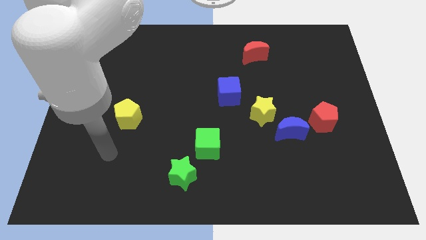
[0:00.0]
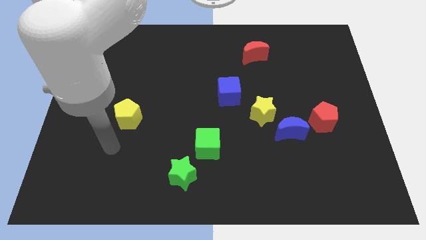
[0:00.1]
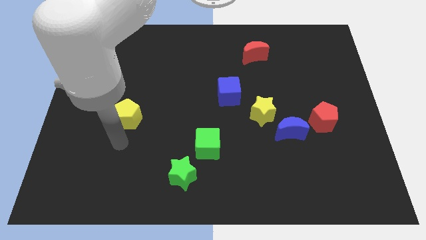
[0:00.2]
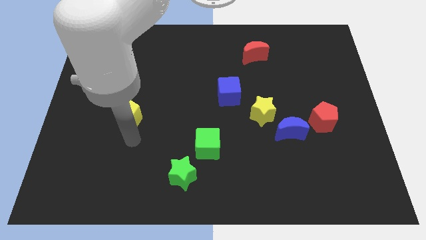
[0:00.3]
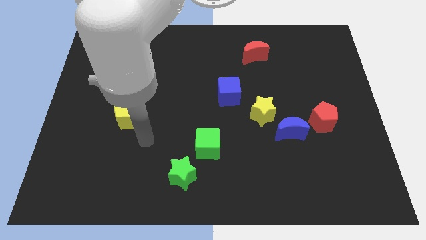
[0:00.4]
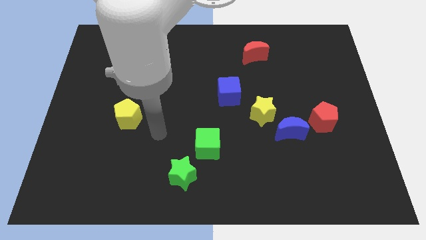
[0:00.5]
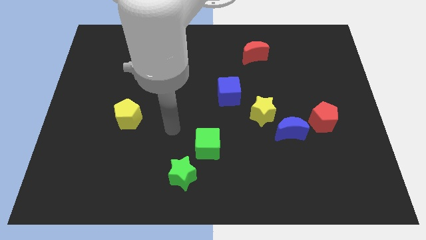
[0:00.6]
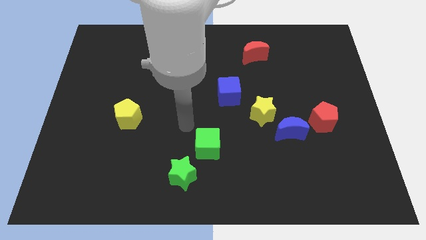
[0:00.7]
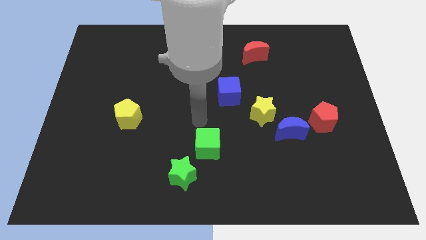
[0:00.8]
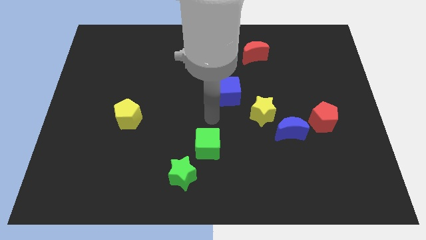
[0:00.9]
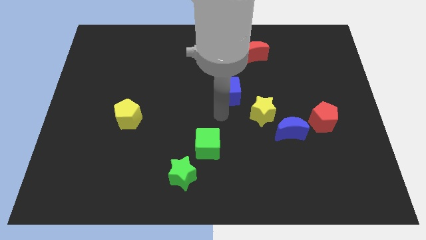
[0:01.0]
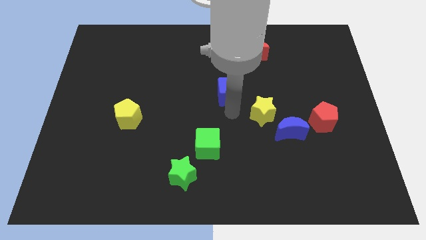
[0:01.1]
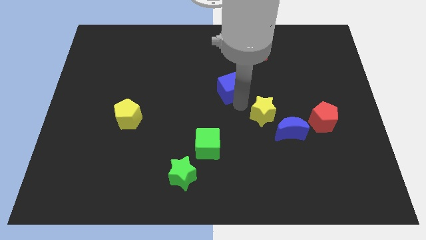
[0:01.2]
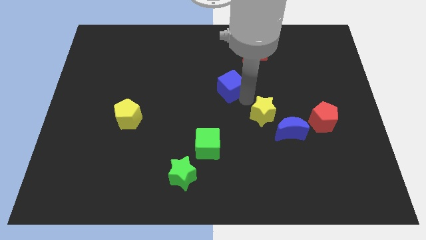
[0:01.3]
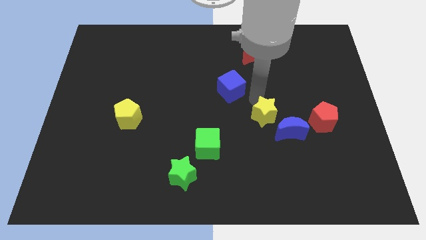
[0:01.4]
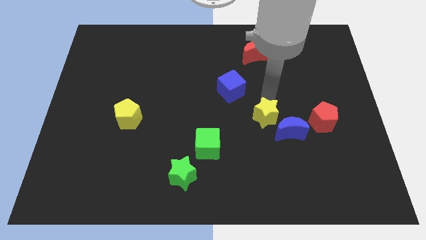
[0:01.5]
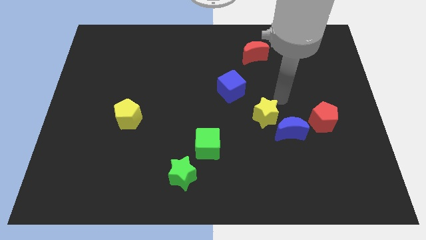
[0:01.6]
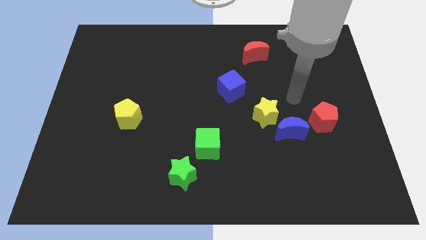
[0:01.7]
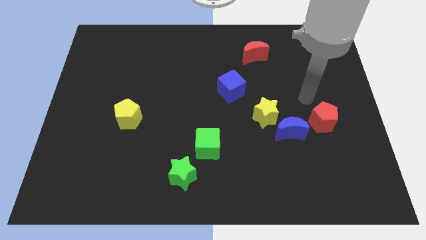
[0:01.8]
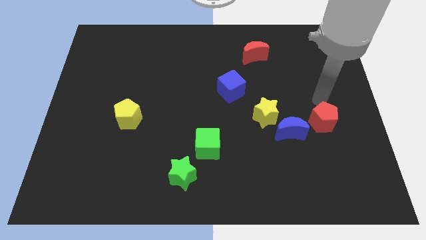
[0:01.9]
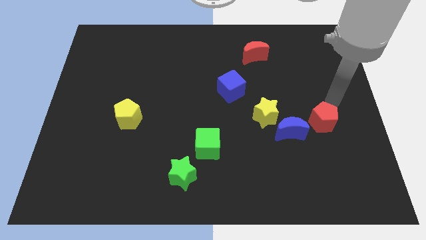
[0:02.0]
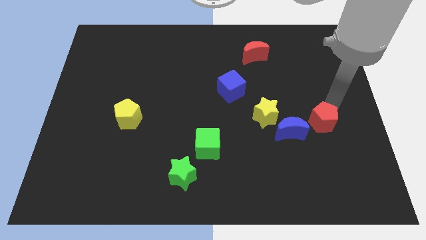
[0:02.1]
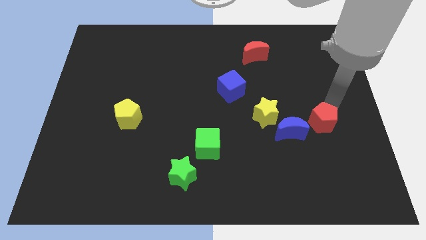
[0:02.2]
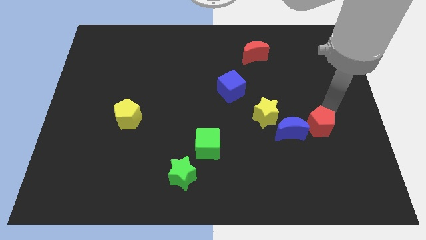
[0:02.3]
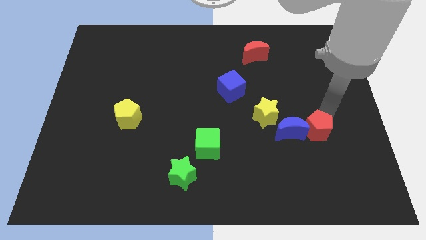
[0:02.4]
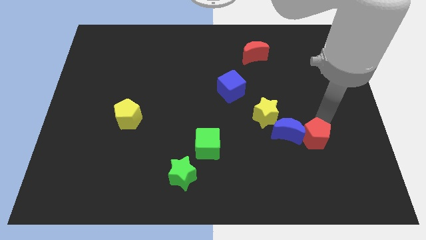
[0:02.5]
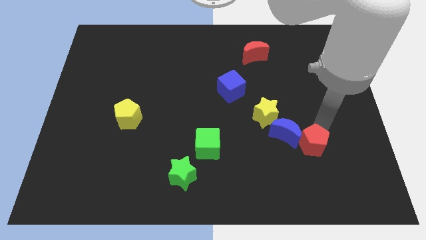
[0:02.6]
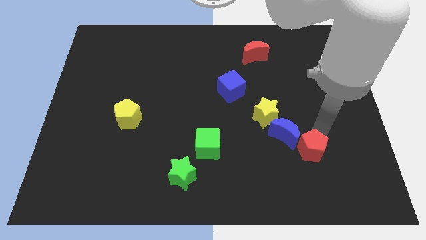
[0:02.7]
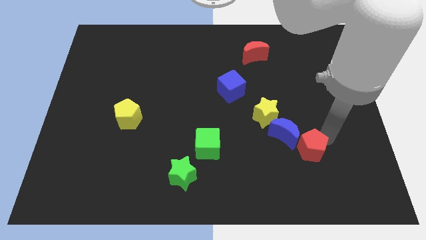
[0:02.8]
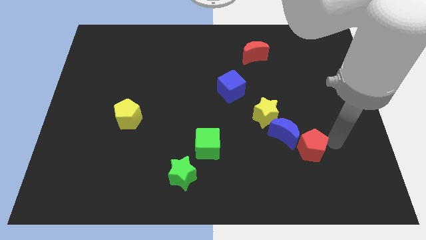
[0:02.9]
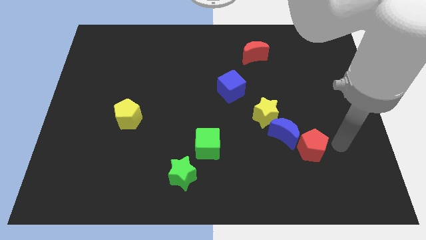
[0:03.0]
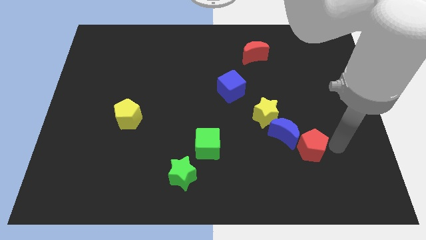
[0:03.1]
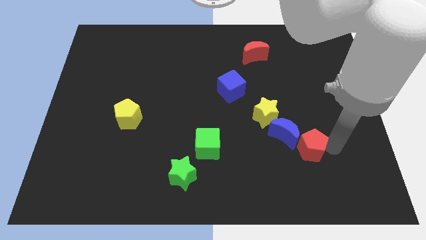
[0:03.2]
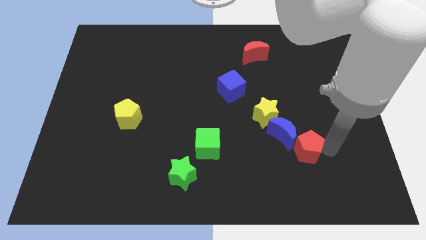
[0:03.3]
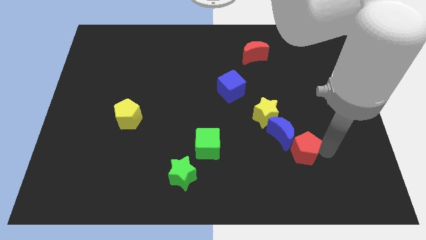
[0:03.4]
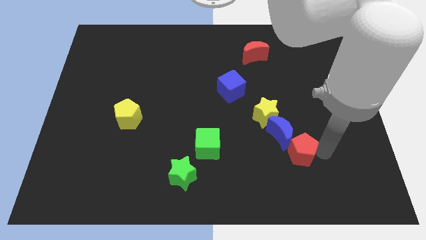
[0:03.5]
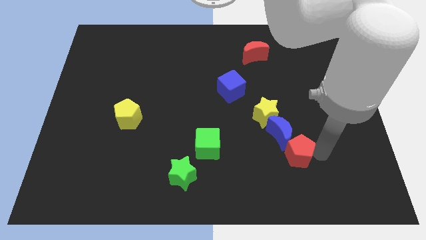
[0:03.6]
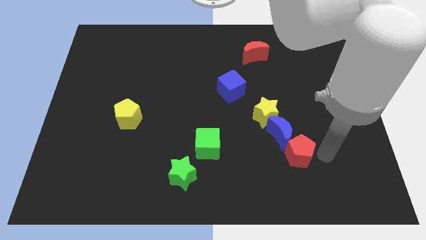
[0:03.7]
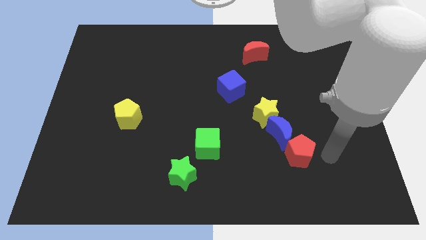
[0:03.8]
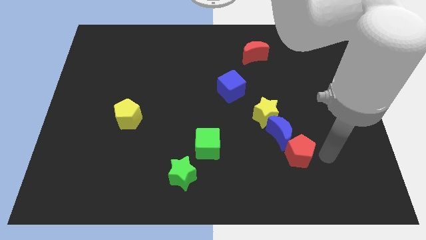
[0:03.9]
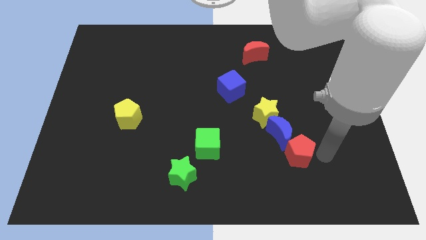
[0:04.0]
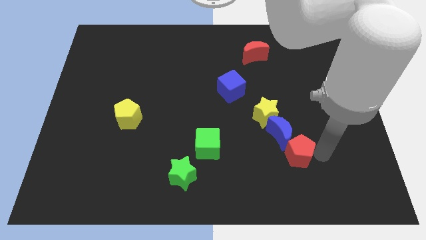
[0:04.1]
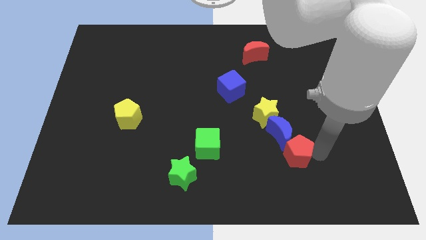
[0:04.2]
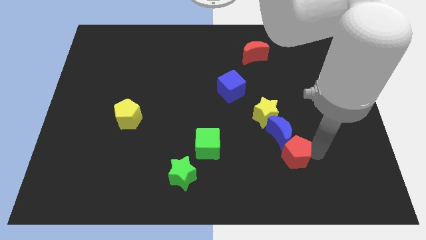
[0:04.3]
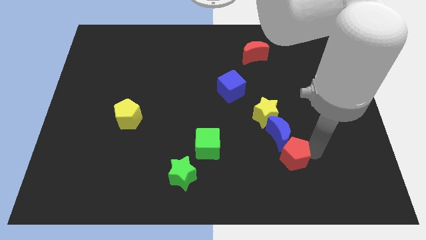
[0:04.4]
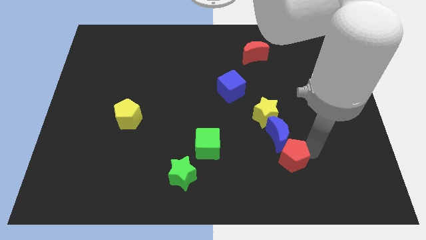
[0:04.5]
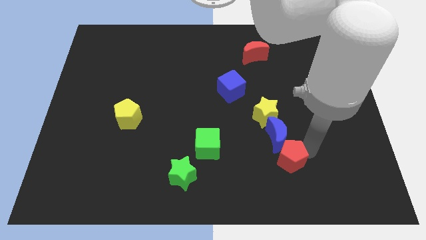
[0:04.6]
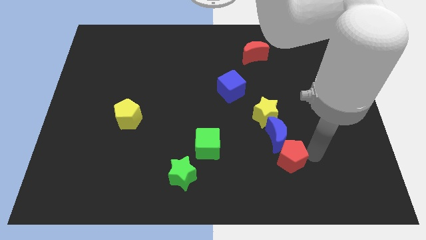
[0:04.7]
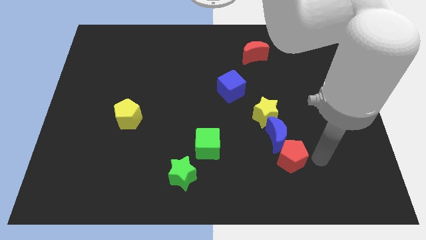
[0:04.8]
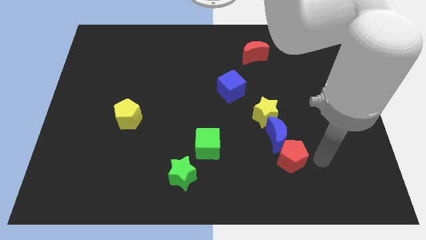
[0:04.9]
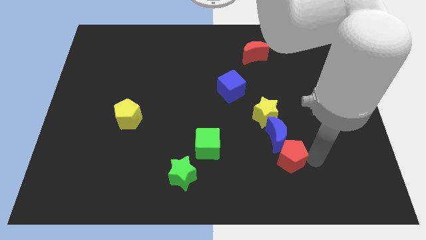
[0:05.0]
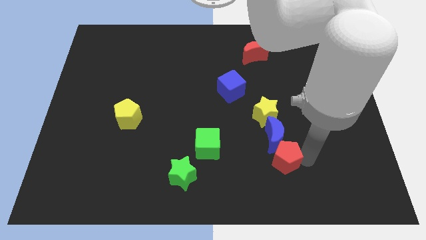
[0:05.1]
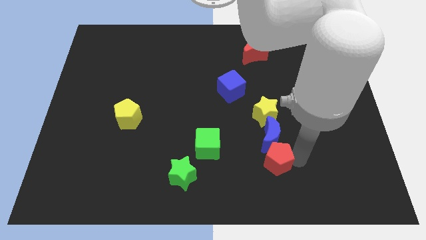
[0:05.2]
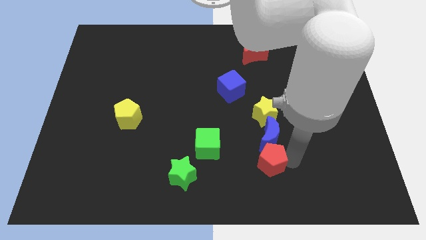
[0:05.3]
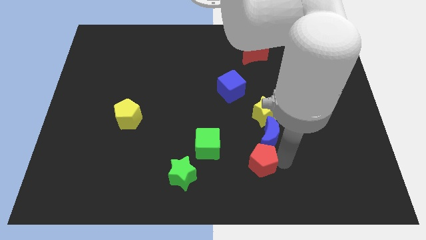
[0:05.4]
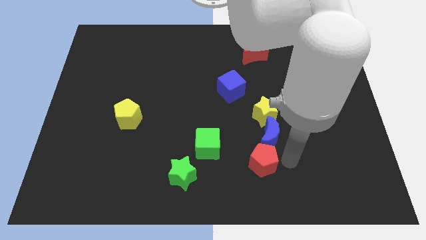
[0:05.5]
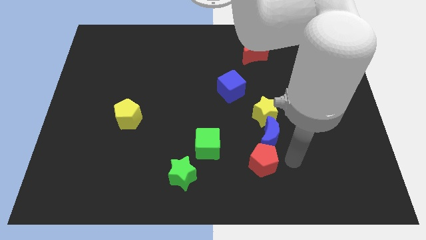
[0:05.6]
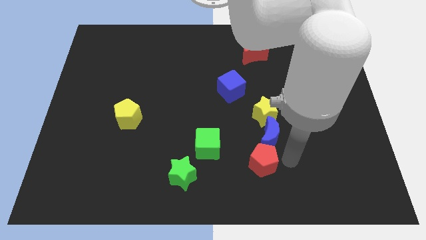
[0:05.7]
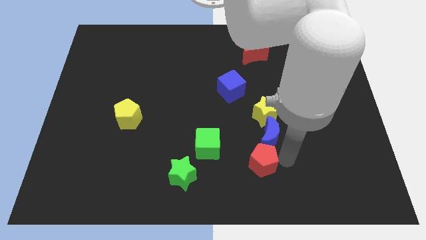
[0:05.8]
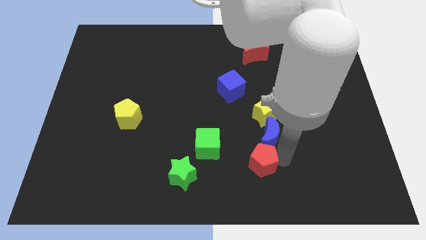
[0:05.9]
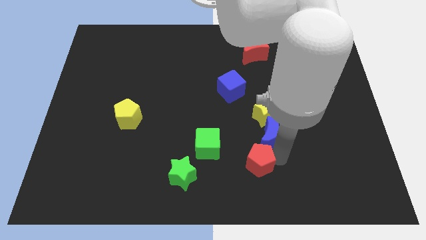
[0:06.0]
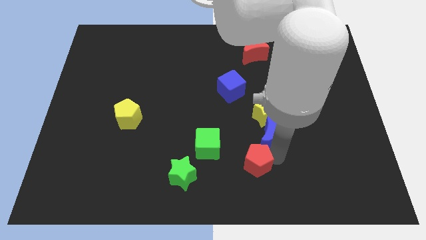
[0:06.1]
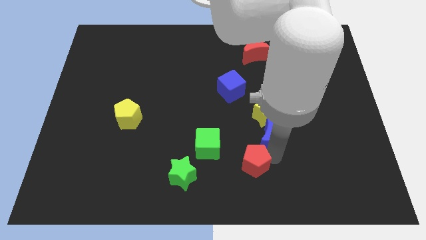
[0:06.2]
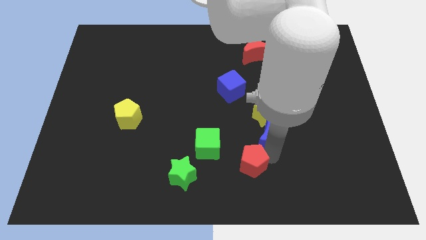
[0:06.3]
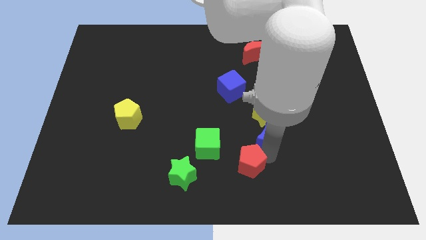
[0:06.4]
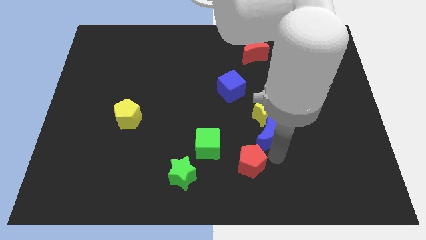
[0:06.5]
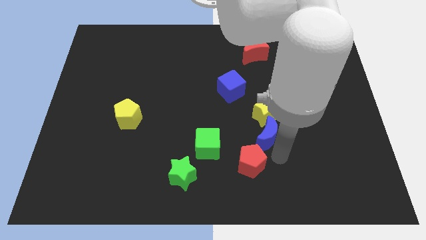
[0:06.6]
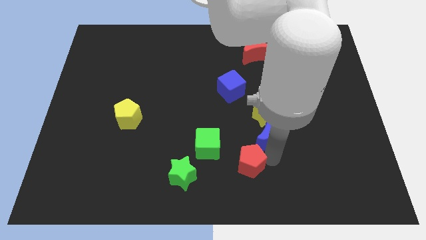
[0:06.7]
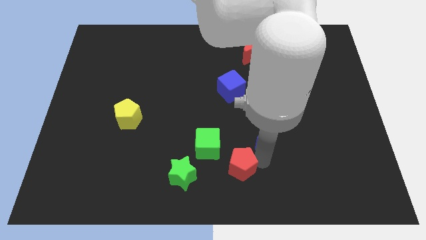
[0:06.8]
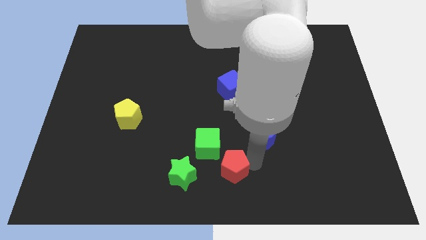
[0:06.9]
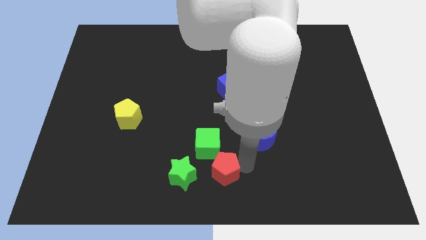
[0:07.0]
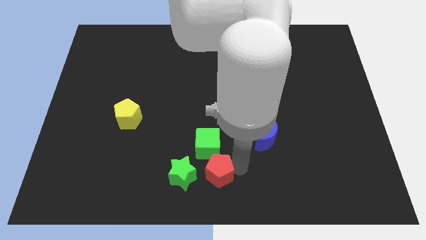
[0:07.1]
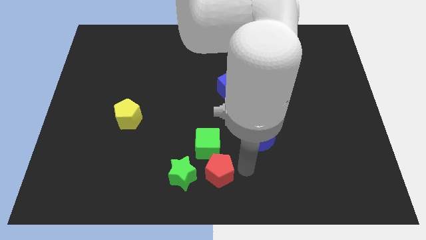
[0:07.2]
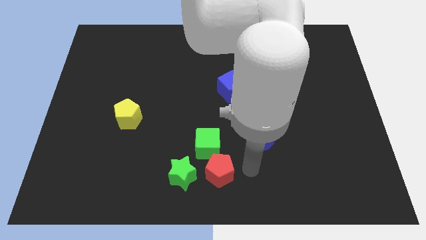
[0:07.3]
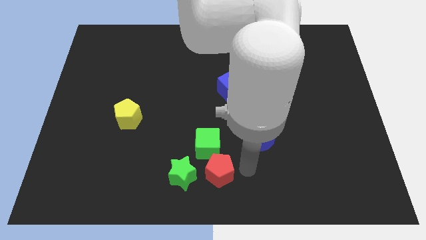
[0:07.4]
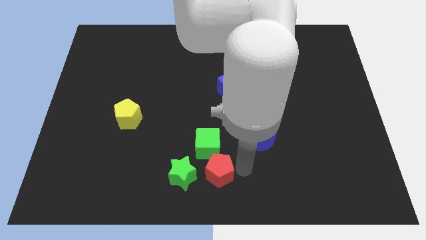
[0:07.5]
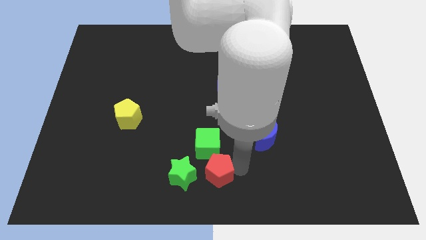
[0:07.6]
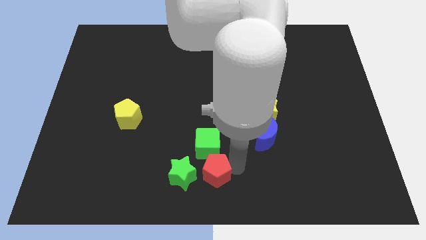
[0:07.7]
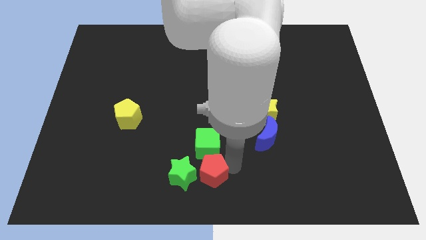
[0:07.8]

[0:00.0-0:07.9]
move the red pentagon next to the green star
